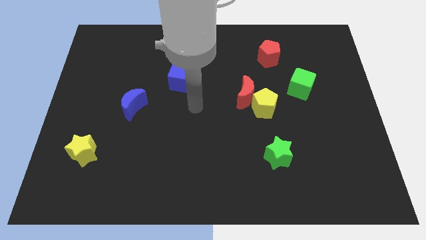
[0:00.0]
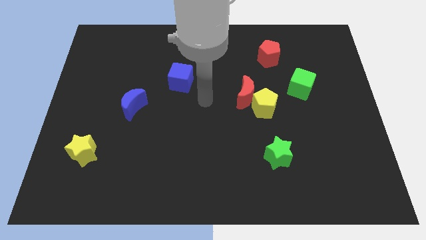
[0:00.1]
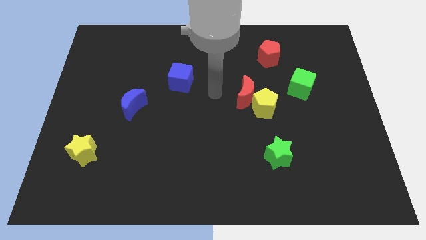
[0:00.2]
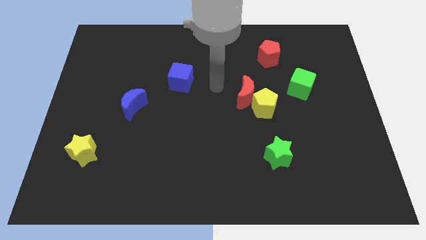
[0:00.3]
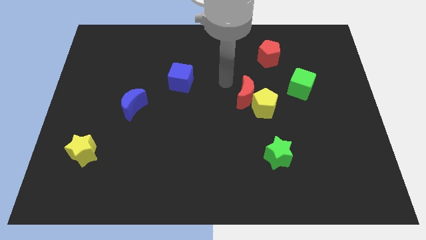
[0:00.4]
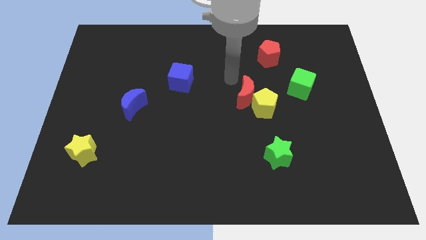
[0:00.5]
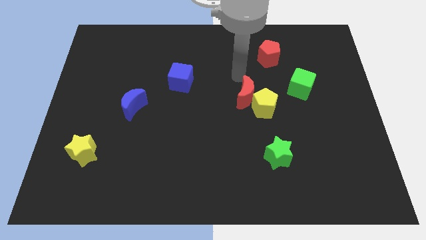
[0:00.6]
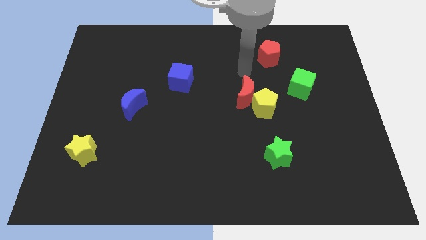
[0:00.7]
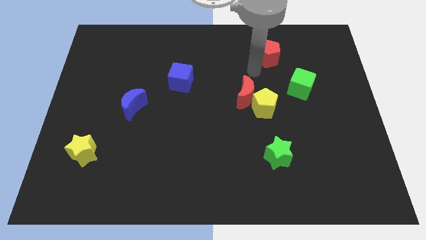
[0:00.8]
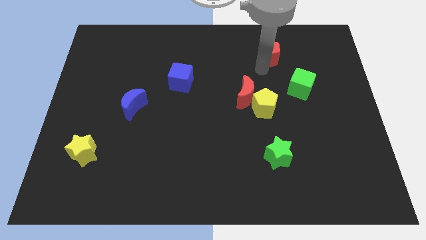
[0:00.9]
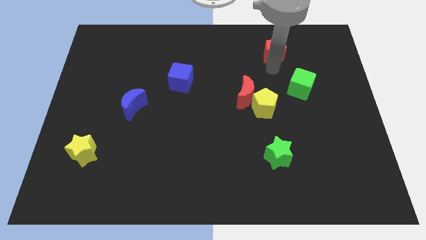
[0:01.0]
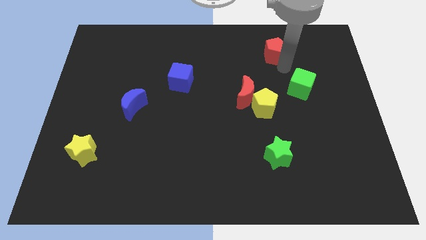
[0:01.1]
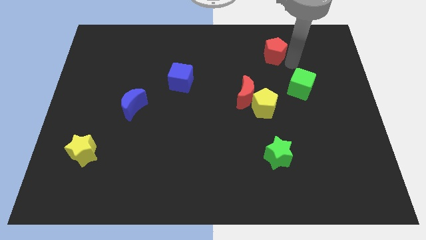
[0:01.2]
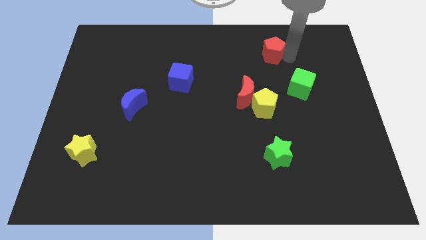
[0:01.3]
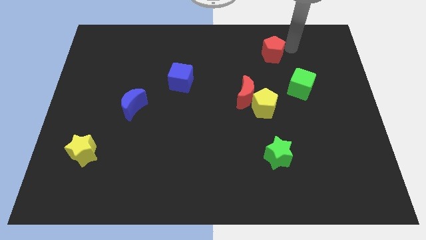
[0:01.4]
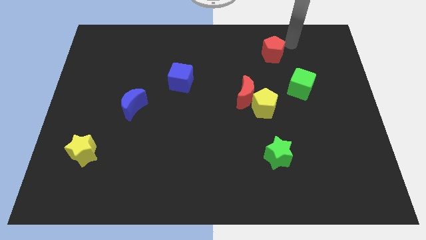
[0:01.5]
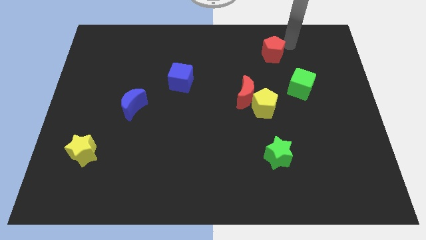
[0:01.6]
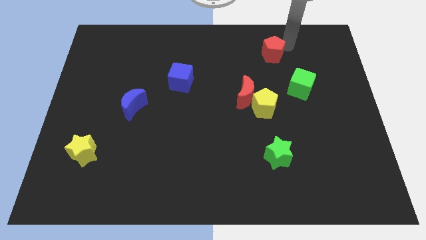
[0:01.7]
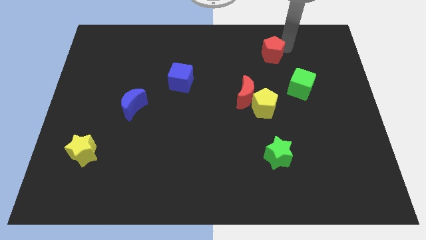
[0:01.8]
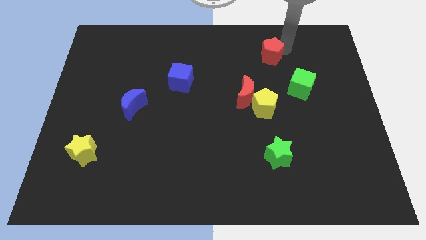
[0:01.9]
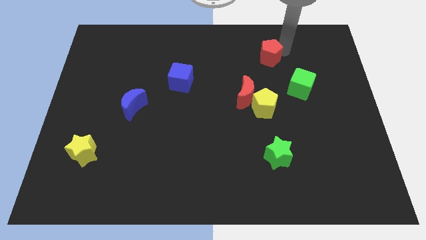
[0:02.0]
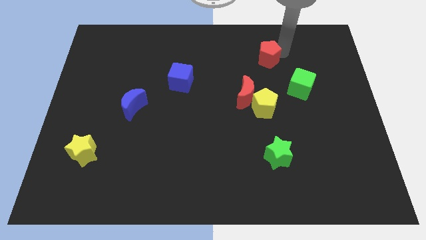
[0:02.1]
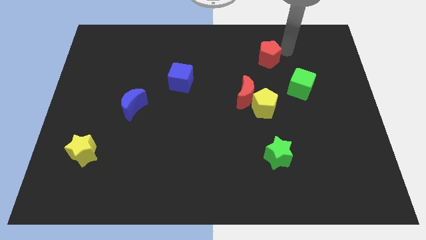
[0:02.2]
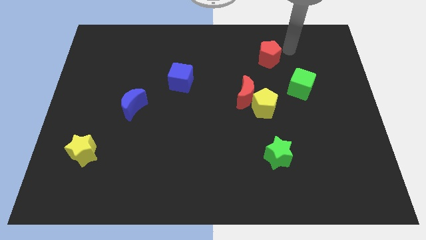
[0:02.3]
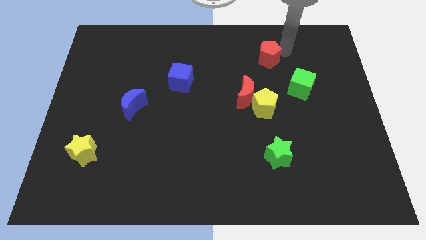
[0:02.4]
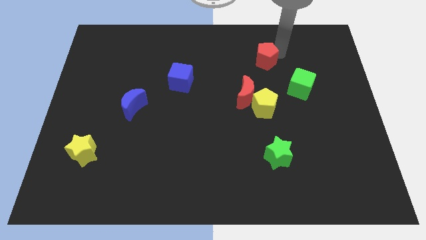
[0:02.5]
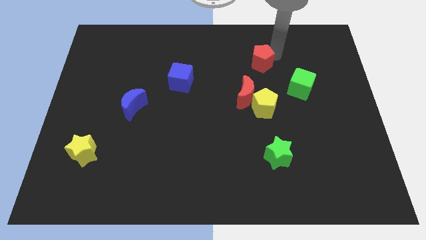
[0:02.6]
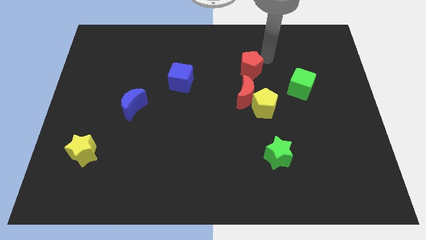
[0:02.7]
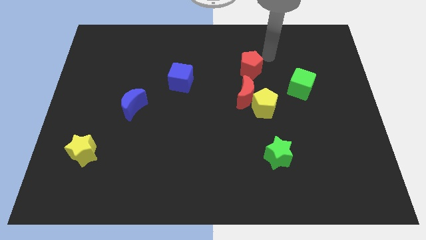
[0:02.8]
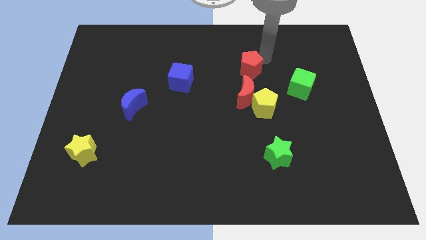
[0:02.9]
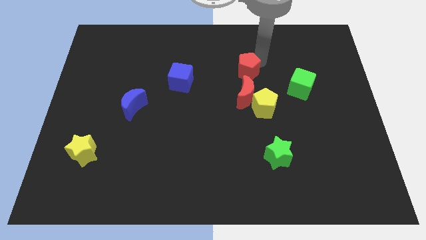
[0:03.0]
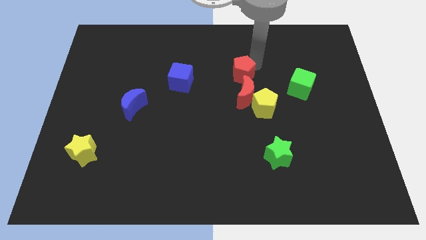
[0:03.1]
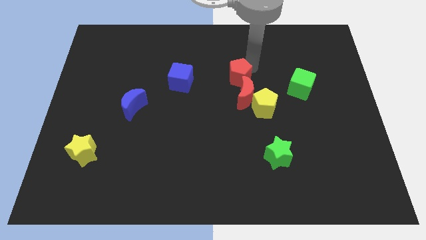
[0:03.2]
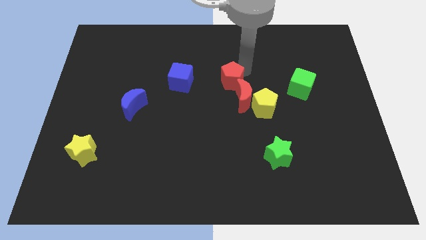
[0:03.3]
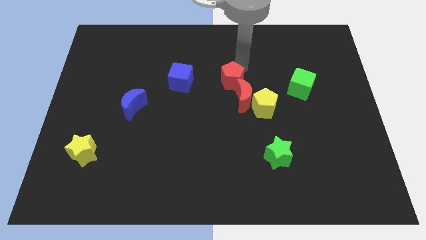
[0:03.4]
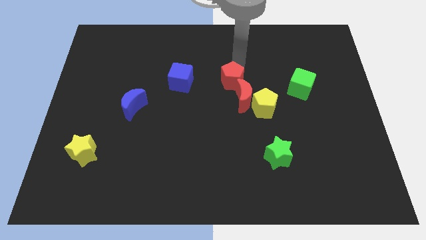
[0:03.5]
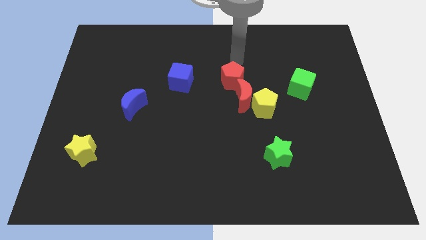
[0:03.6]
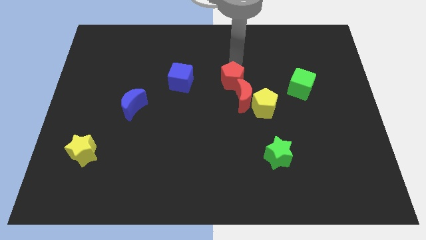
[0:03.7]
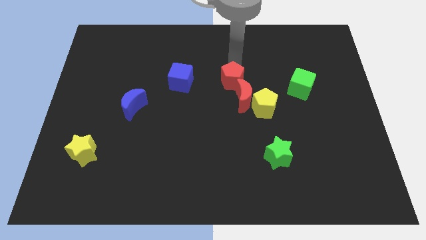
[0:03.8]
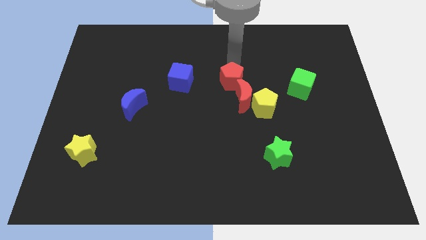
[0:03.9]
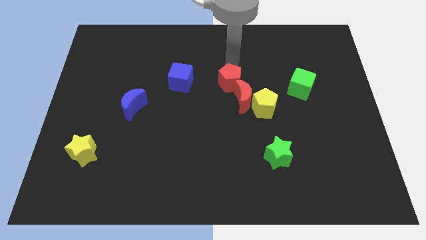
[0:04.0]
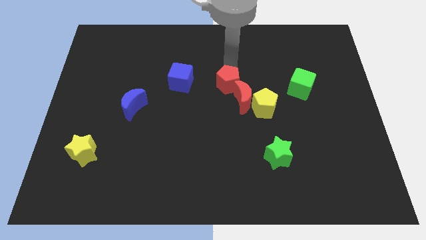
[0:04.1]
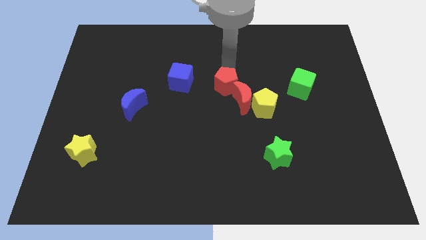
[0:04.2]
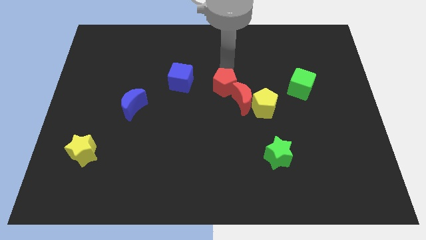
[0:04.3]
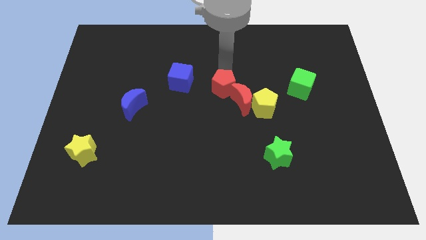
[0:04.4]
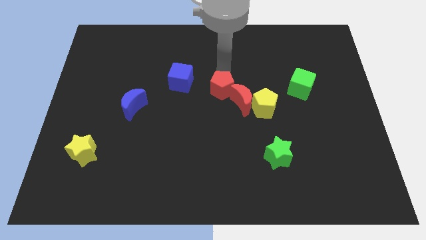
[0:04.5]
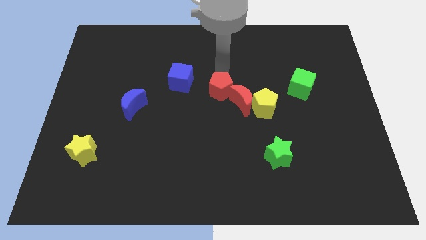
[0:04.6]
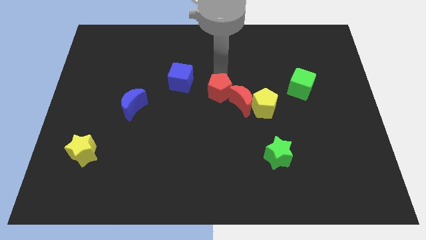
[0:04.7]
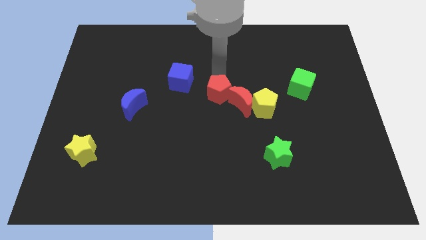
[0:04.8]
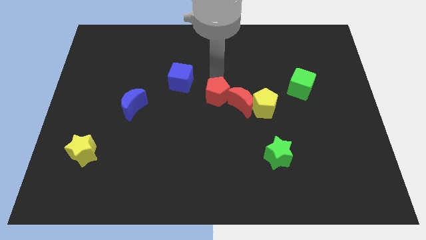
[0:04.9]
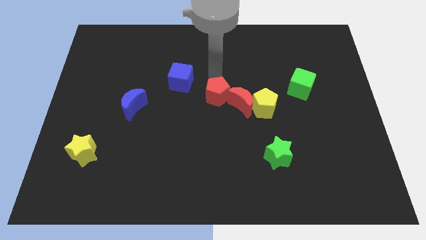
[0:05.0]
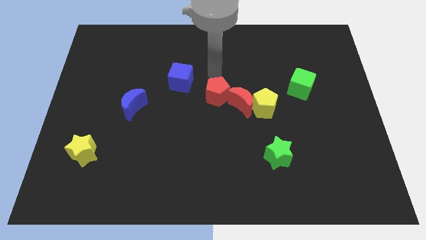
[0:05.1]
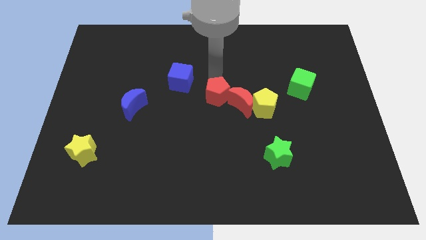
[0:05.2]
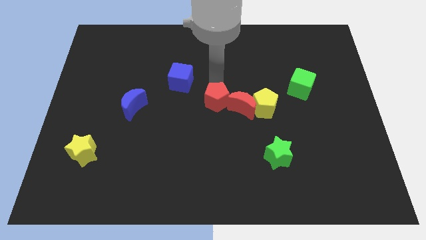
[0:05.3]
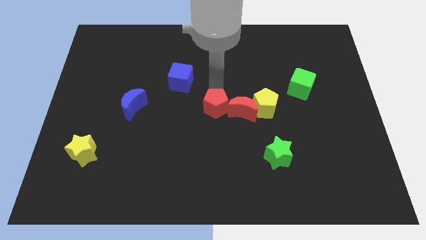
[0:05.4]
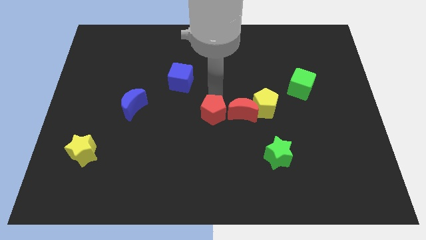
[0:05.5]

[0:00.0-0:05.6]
move the red pentagon diagonally down and to the left of the red moon

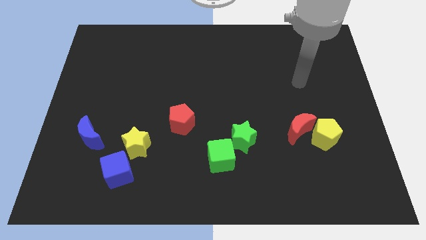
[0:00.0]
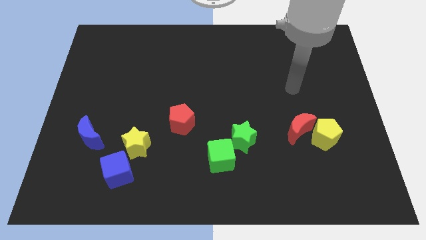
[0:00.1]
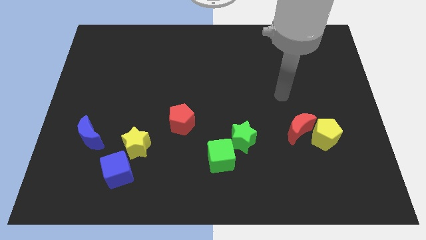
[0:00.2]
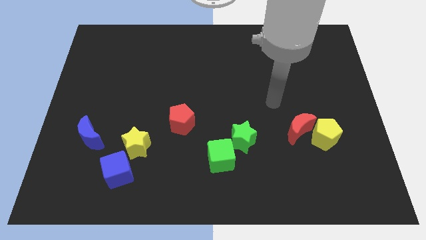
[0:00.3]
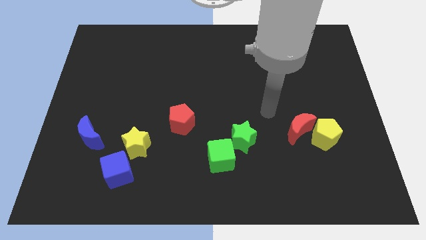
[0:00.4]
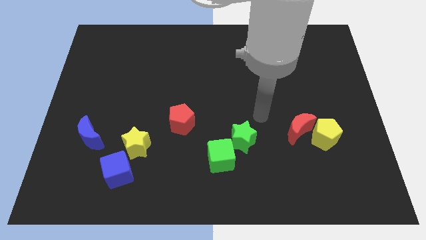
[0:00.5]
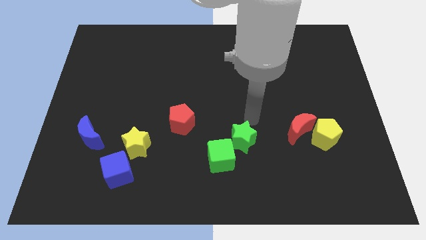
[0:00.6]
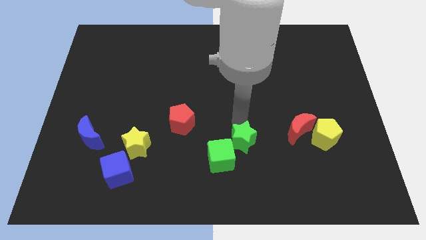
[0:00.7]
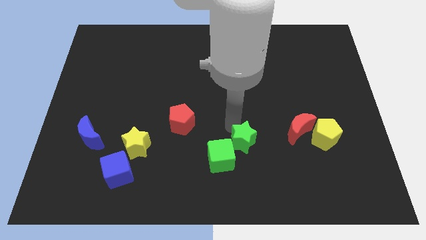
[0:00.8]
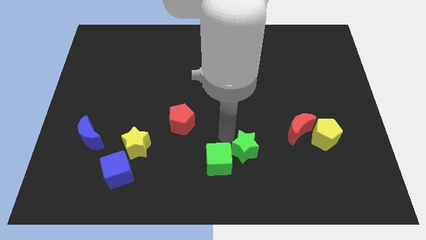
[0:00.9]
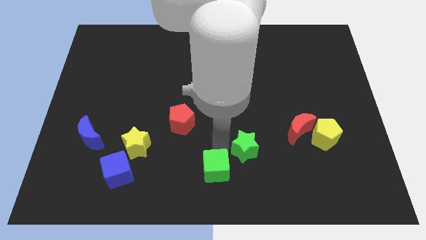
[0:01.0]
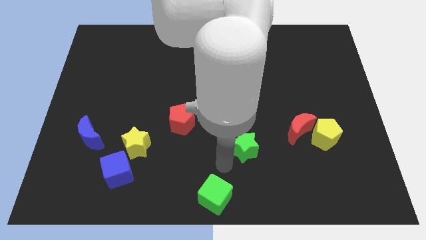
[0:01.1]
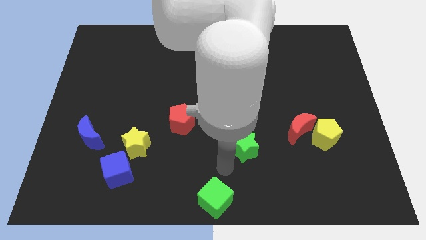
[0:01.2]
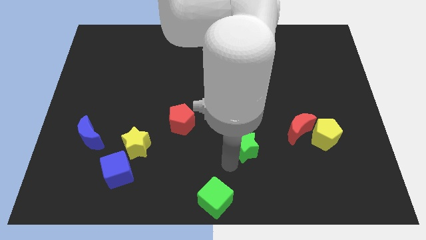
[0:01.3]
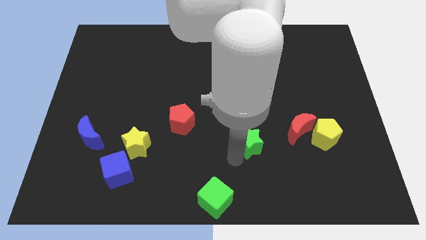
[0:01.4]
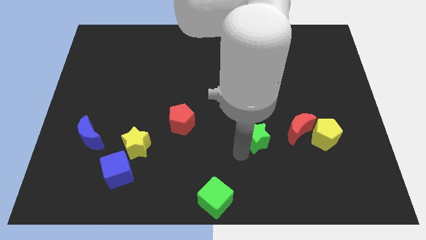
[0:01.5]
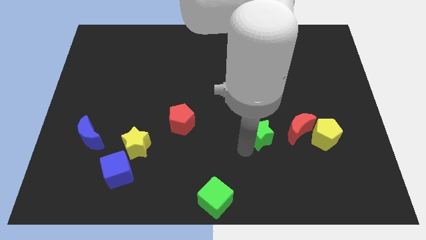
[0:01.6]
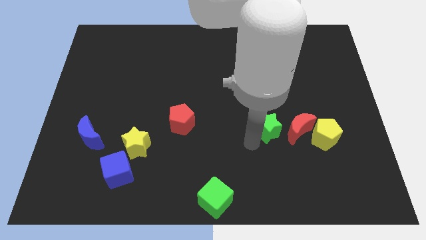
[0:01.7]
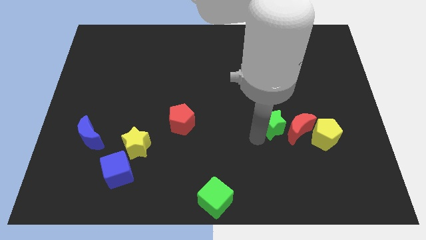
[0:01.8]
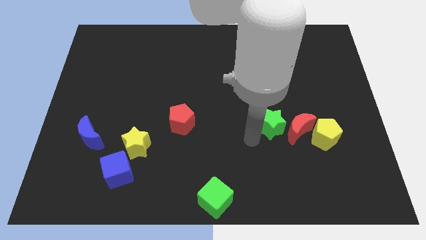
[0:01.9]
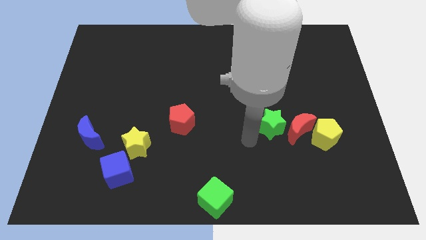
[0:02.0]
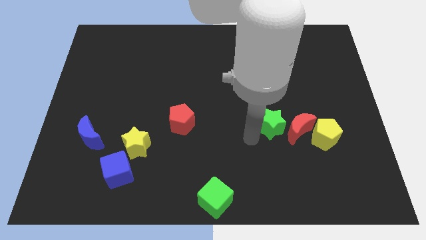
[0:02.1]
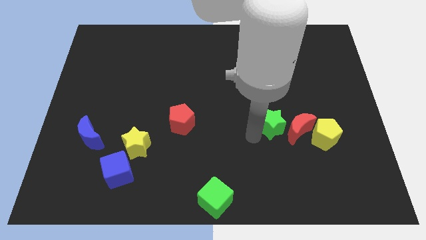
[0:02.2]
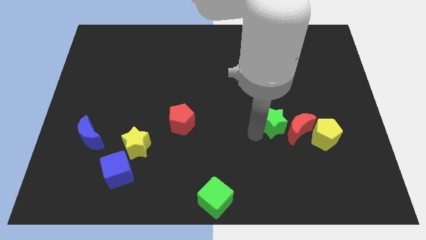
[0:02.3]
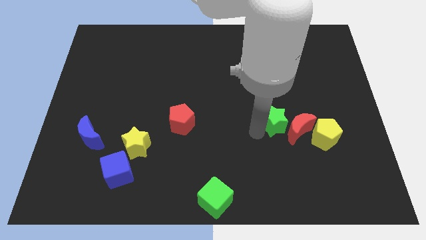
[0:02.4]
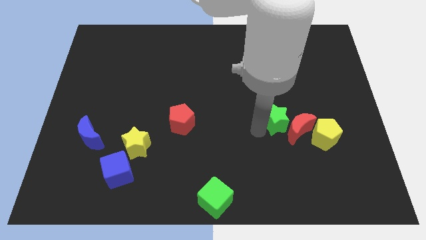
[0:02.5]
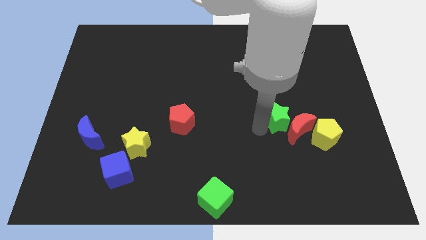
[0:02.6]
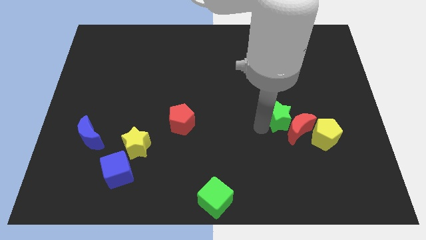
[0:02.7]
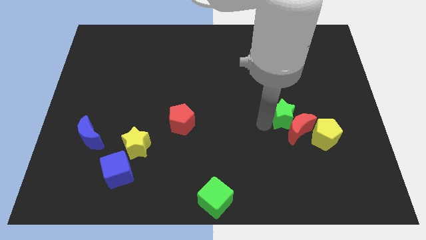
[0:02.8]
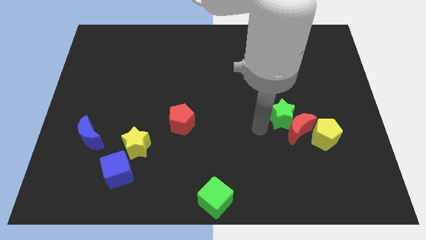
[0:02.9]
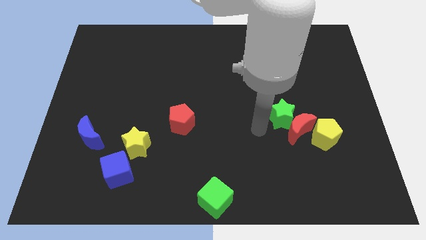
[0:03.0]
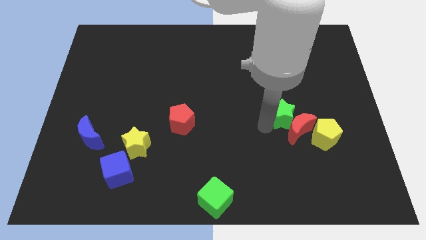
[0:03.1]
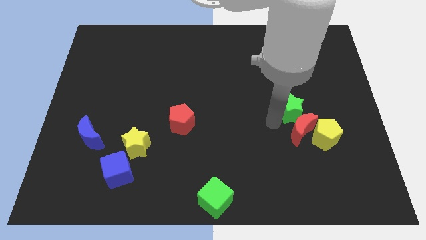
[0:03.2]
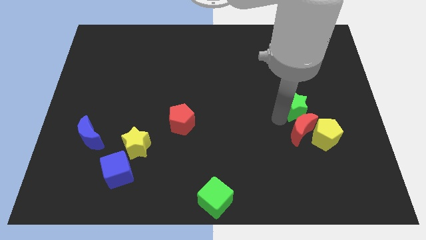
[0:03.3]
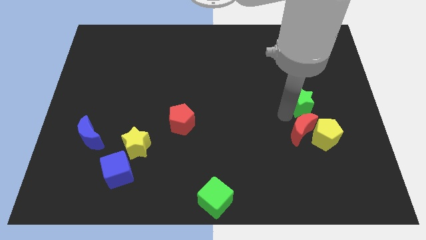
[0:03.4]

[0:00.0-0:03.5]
put the green star to the top of the yellow pentagon
